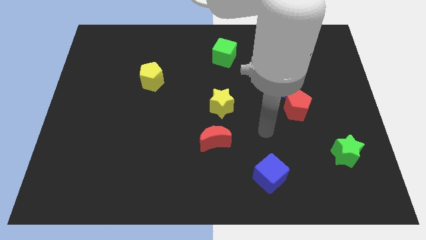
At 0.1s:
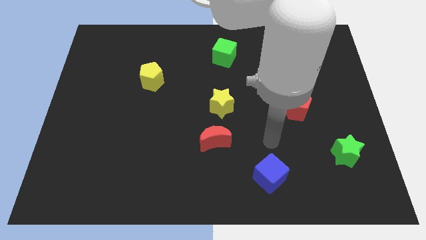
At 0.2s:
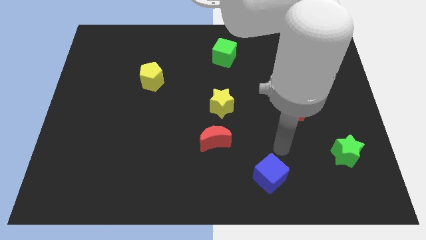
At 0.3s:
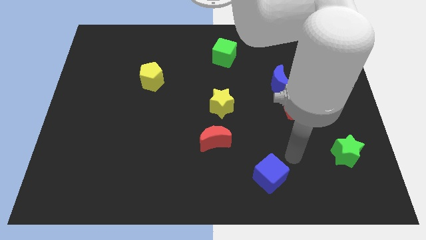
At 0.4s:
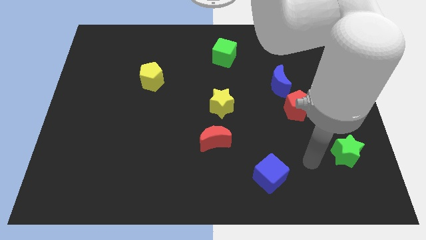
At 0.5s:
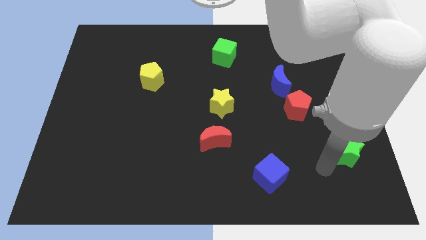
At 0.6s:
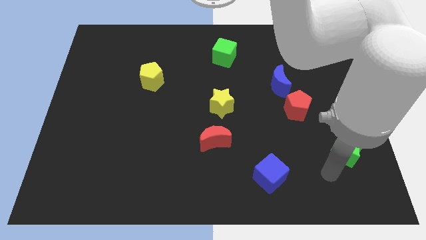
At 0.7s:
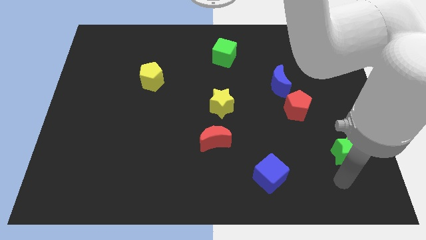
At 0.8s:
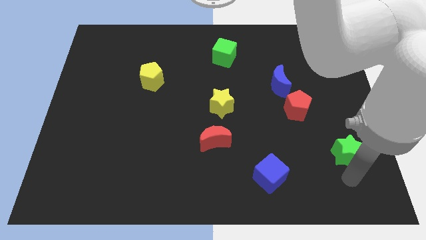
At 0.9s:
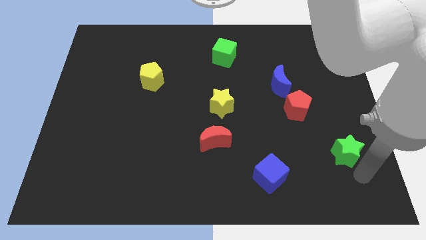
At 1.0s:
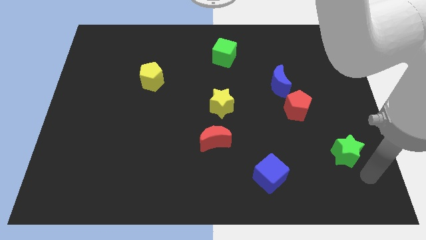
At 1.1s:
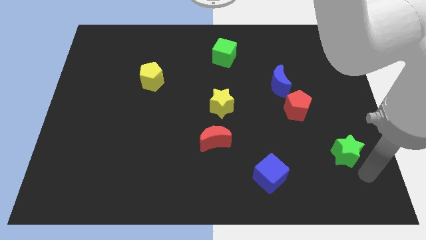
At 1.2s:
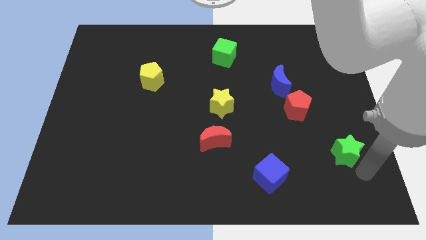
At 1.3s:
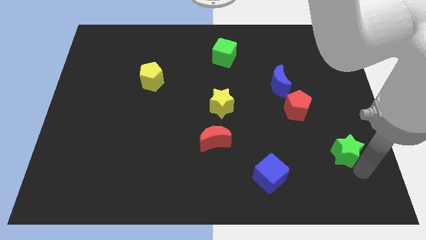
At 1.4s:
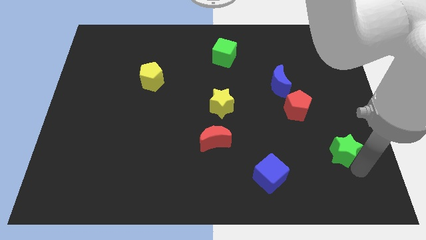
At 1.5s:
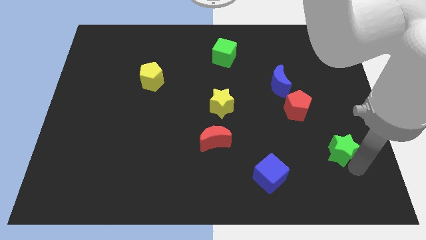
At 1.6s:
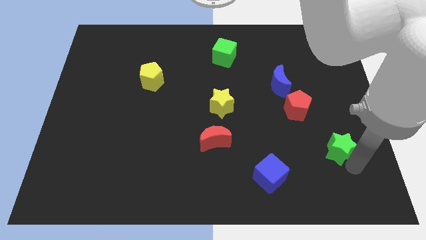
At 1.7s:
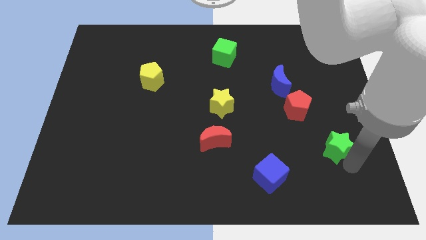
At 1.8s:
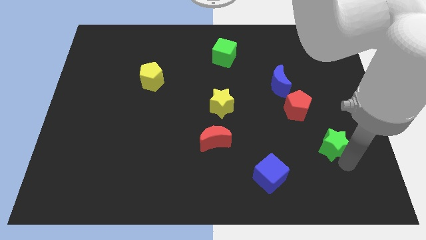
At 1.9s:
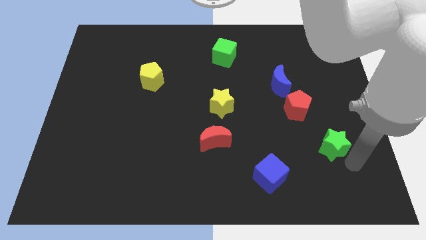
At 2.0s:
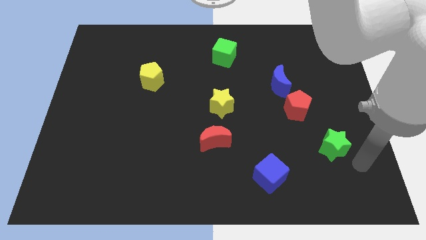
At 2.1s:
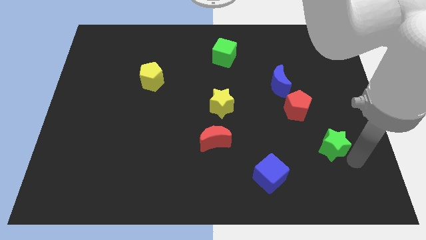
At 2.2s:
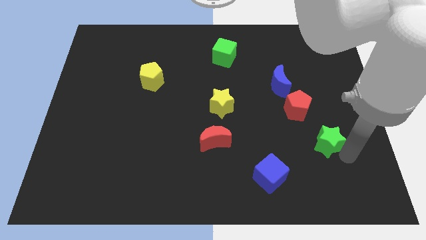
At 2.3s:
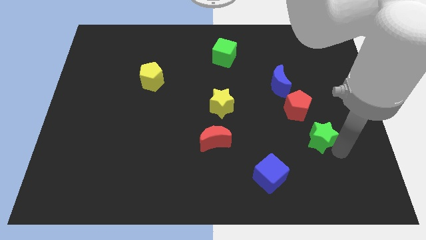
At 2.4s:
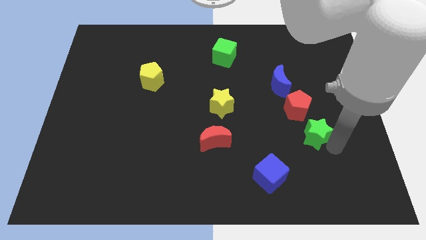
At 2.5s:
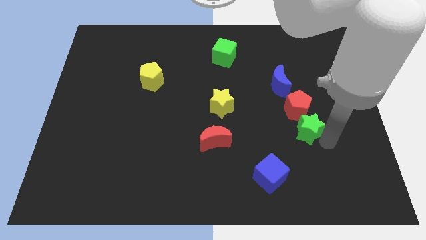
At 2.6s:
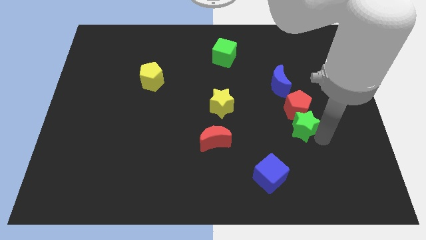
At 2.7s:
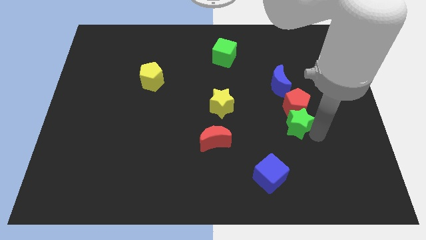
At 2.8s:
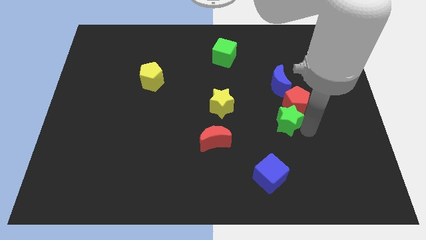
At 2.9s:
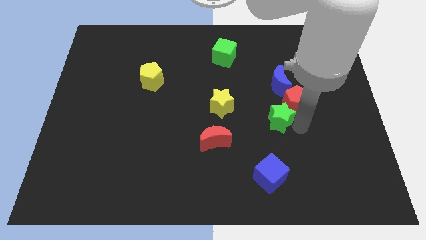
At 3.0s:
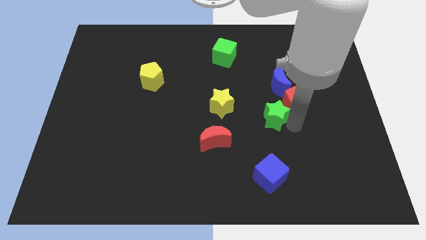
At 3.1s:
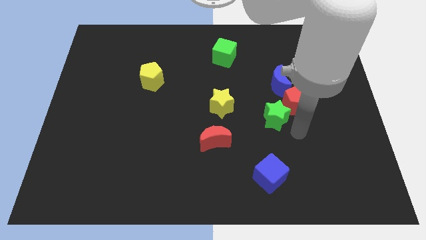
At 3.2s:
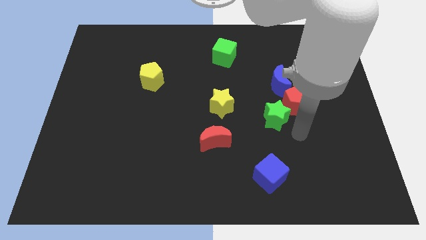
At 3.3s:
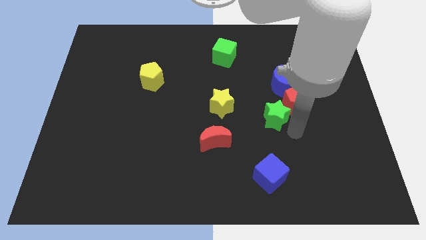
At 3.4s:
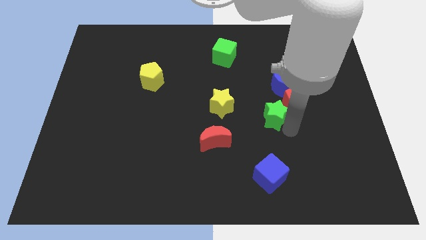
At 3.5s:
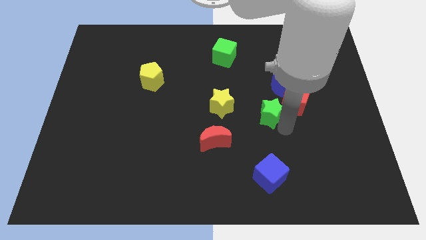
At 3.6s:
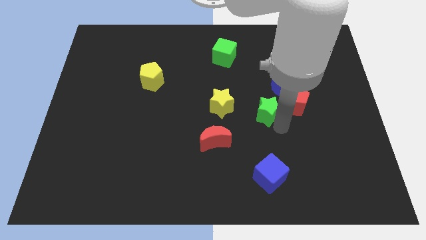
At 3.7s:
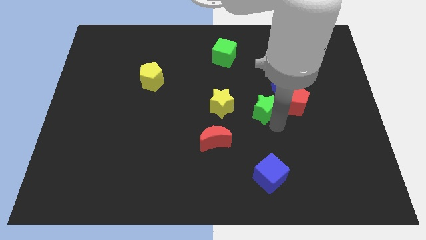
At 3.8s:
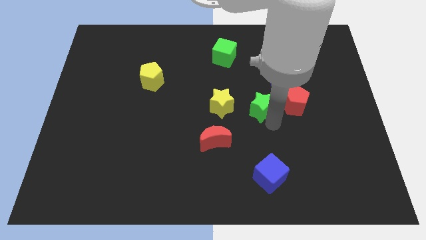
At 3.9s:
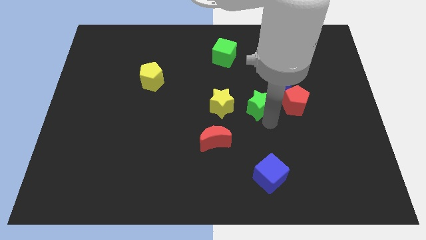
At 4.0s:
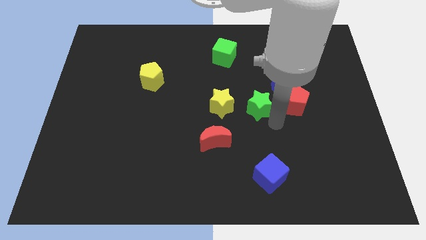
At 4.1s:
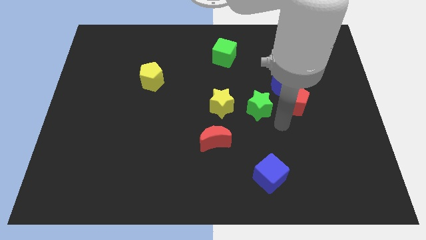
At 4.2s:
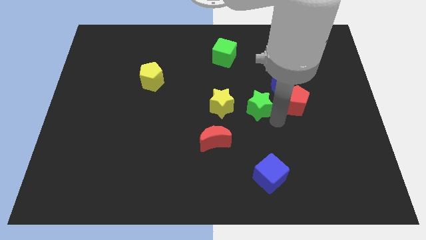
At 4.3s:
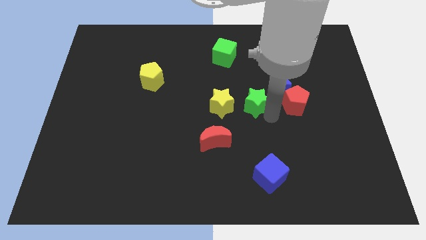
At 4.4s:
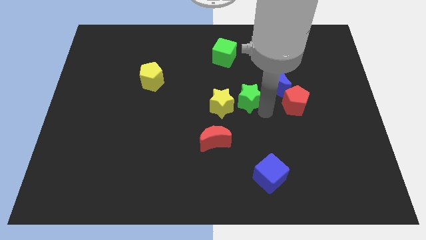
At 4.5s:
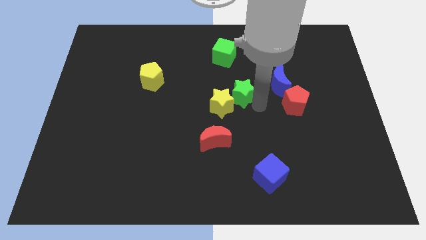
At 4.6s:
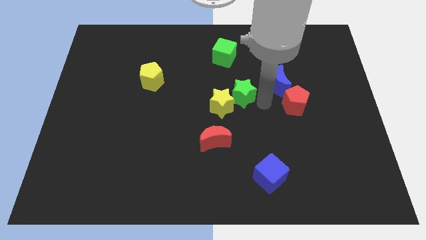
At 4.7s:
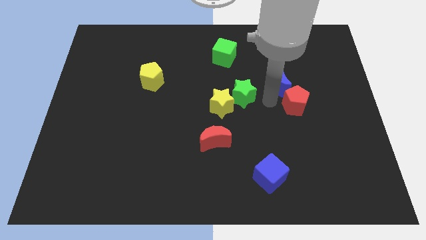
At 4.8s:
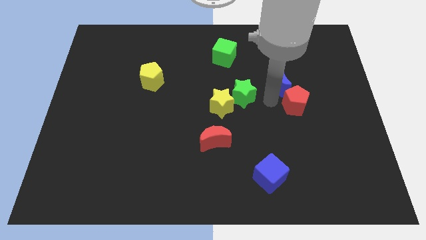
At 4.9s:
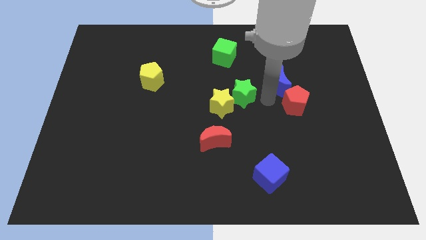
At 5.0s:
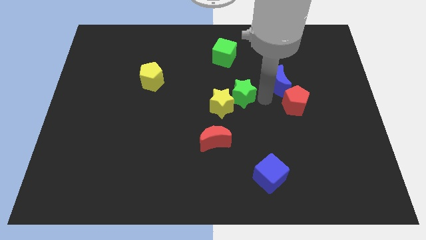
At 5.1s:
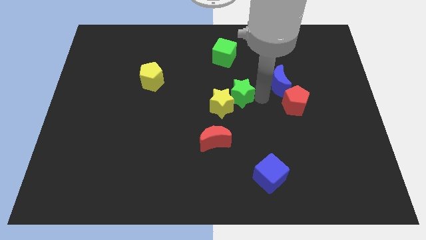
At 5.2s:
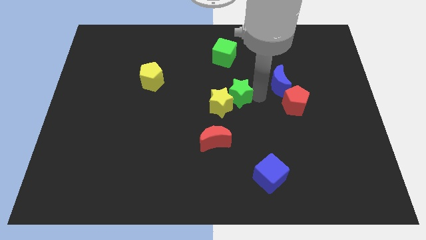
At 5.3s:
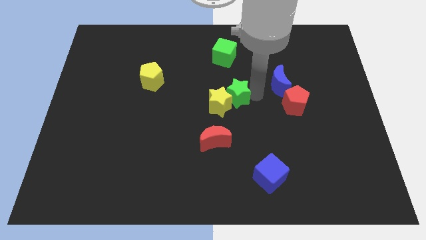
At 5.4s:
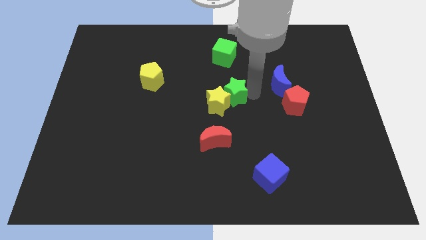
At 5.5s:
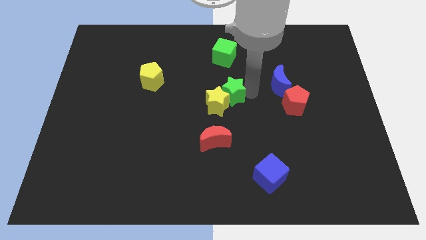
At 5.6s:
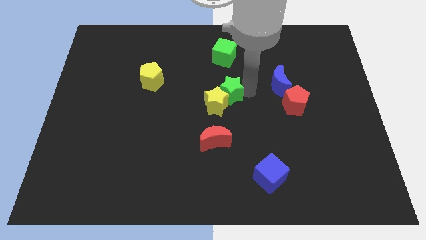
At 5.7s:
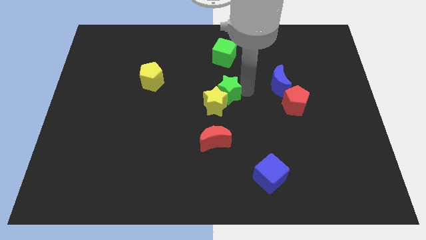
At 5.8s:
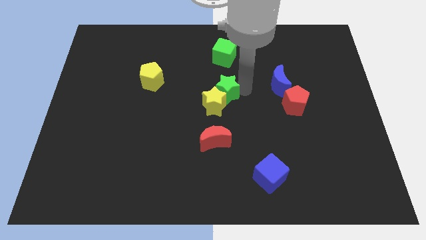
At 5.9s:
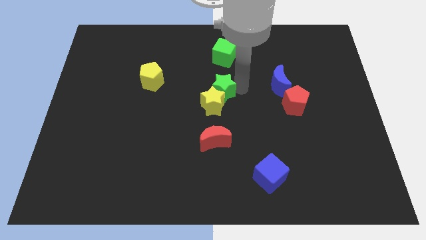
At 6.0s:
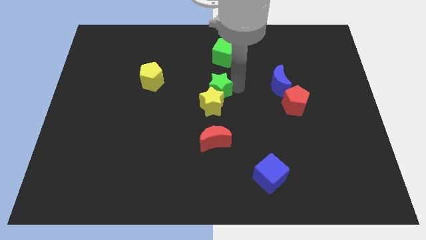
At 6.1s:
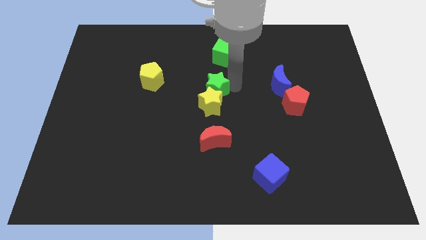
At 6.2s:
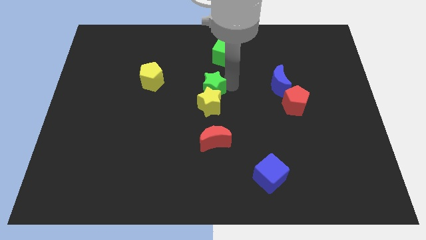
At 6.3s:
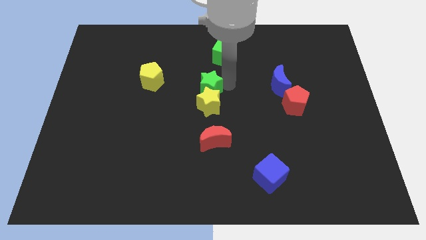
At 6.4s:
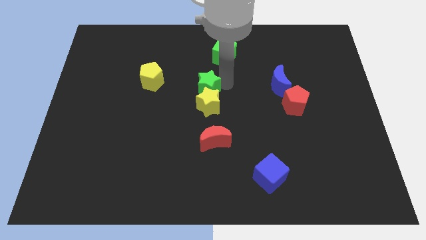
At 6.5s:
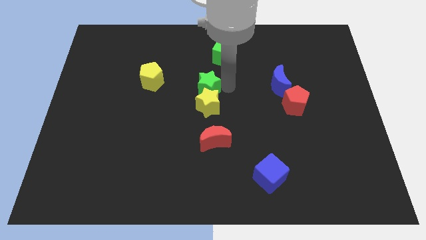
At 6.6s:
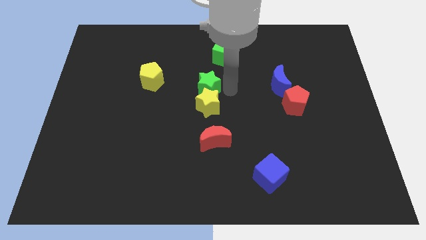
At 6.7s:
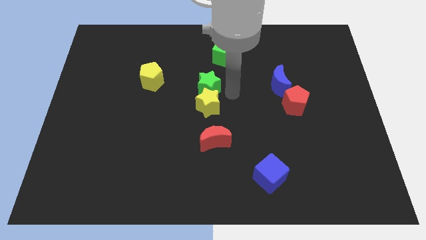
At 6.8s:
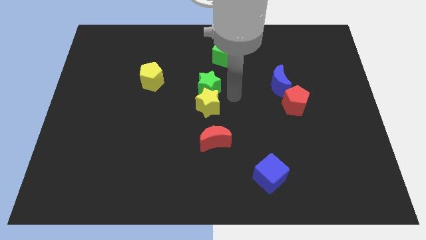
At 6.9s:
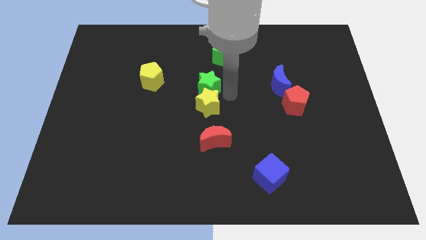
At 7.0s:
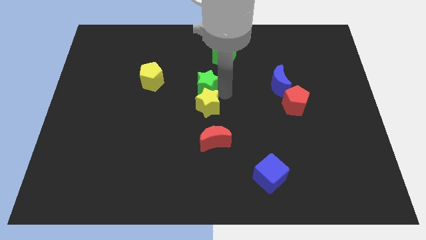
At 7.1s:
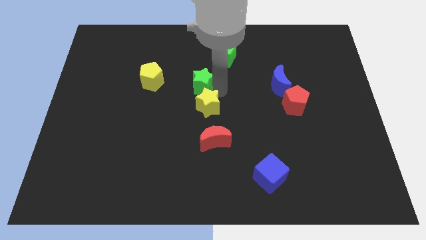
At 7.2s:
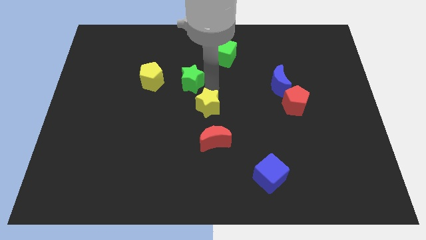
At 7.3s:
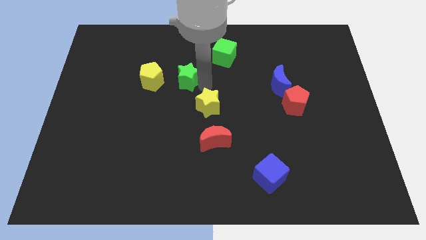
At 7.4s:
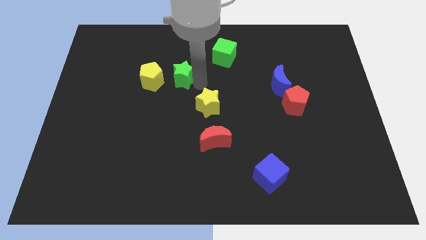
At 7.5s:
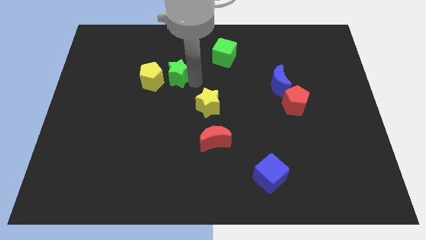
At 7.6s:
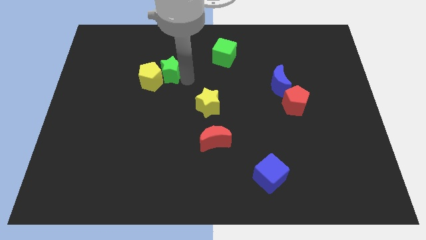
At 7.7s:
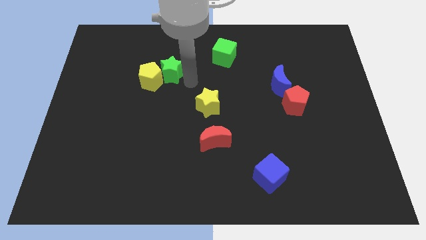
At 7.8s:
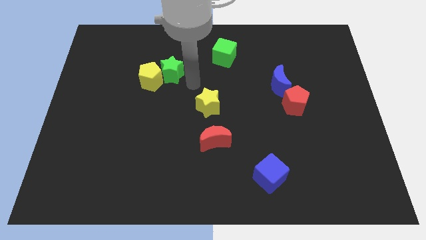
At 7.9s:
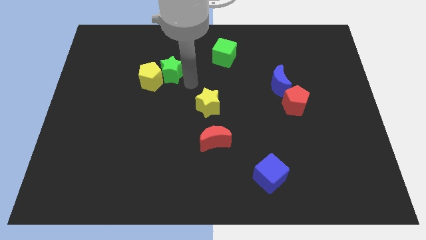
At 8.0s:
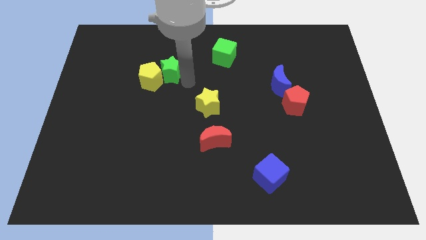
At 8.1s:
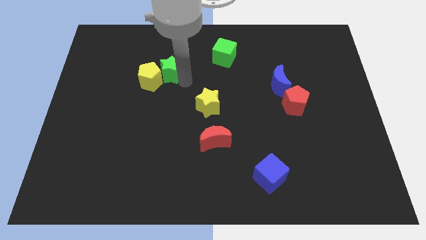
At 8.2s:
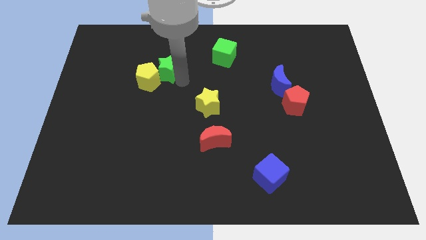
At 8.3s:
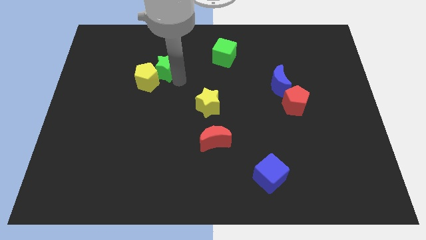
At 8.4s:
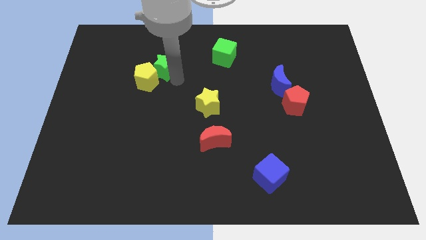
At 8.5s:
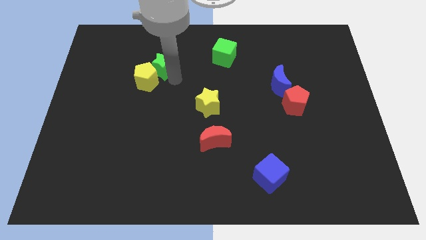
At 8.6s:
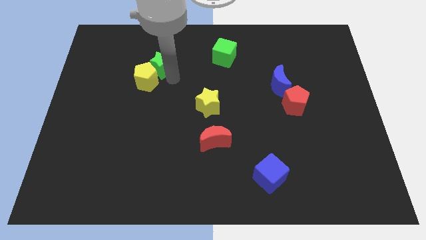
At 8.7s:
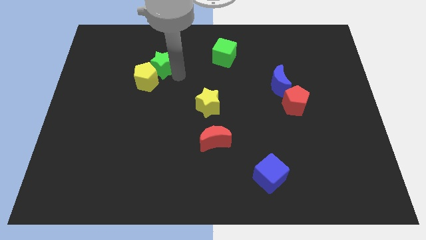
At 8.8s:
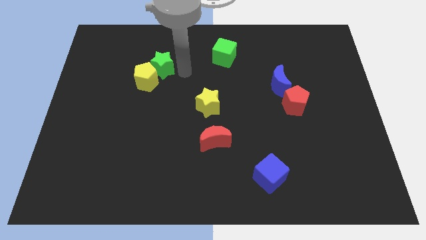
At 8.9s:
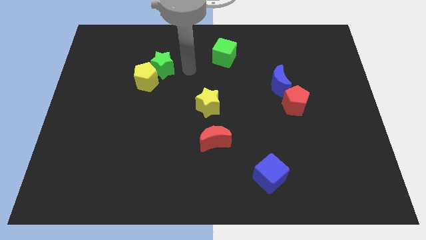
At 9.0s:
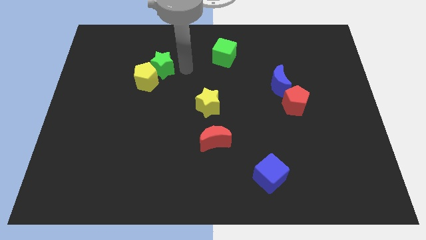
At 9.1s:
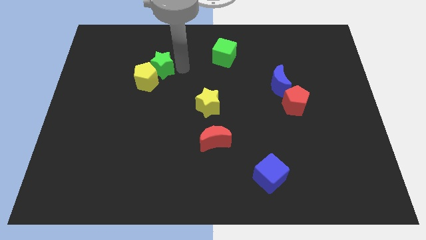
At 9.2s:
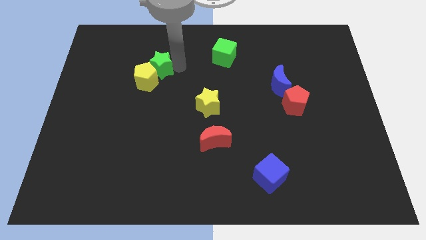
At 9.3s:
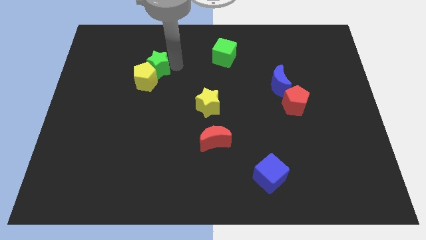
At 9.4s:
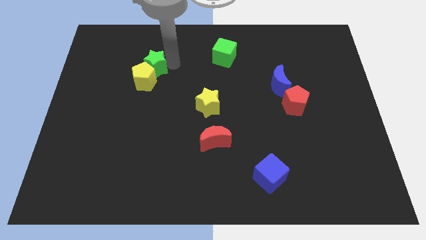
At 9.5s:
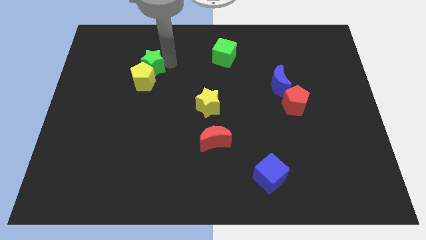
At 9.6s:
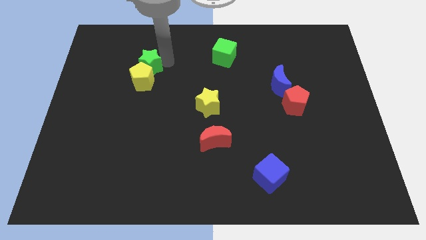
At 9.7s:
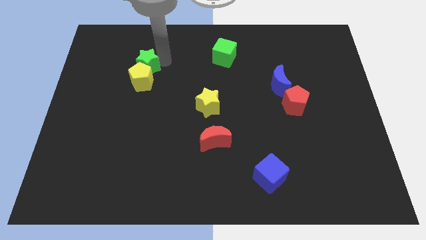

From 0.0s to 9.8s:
slide the green star diagonally up and to the left of the yellow pentagon
